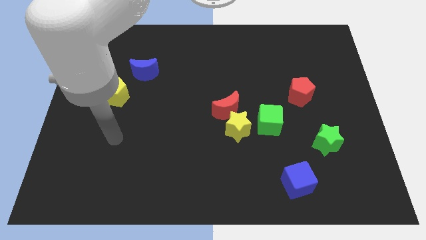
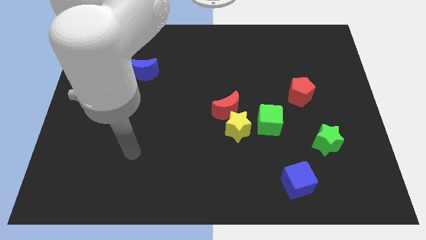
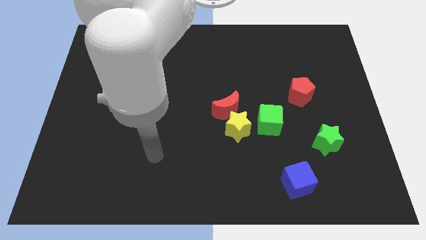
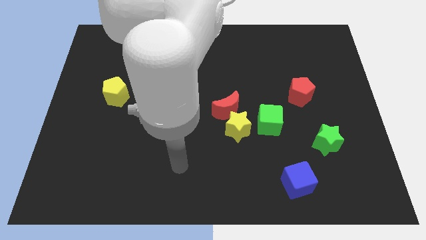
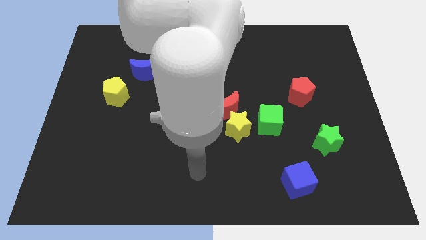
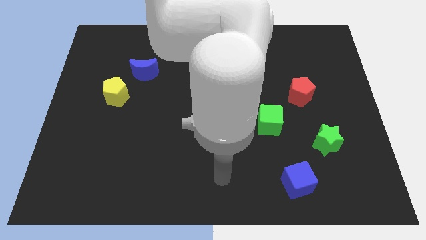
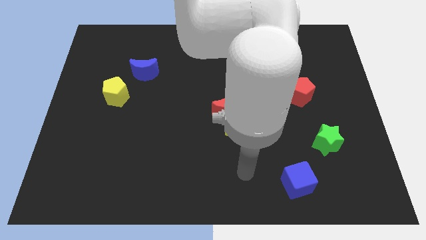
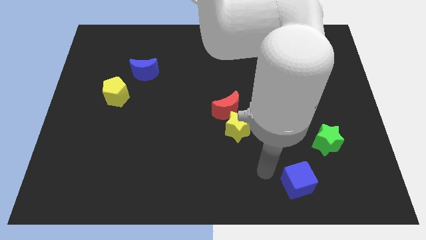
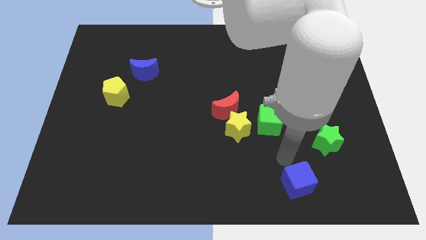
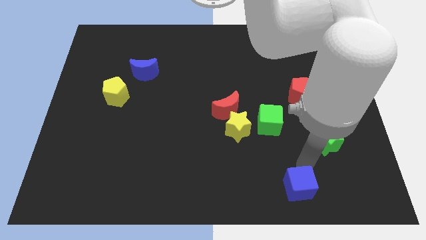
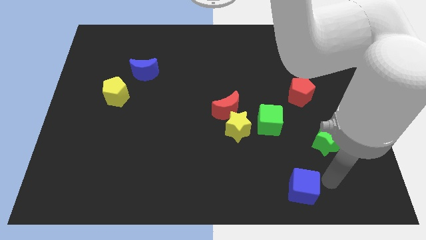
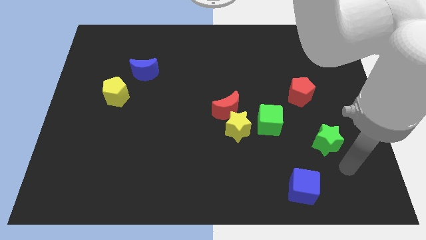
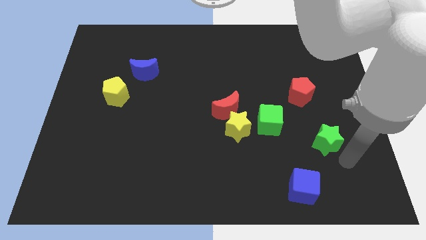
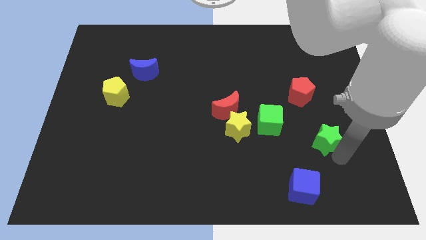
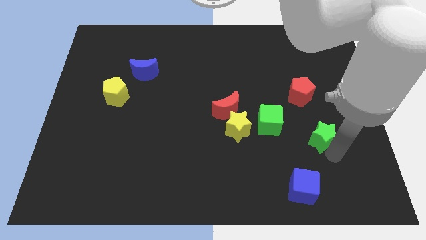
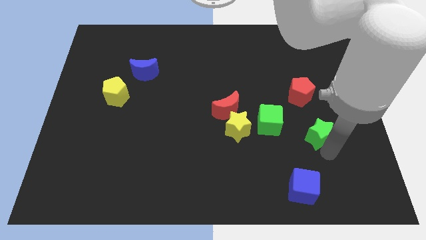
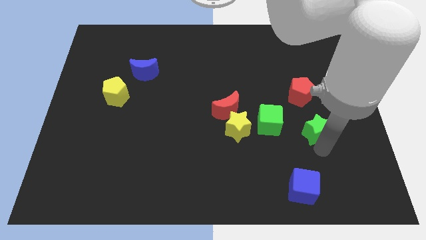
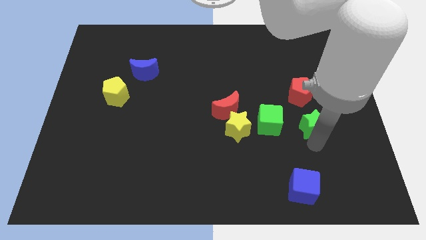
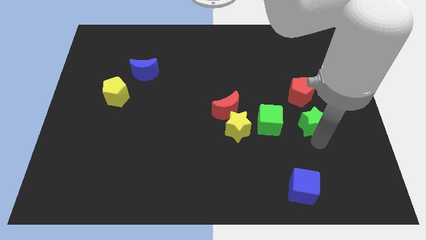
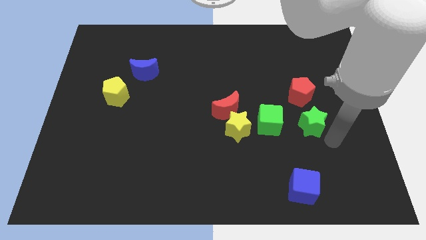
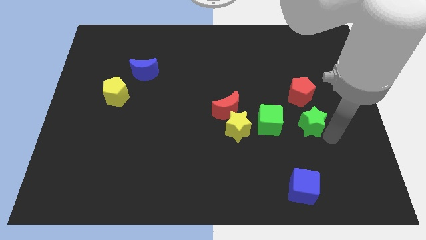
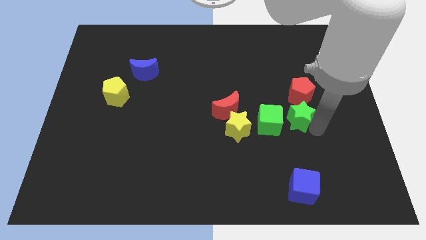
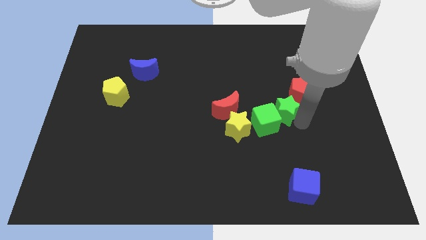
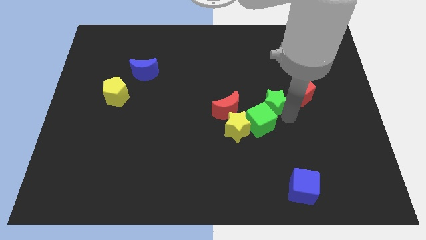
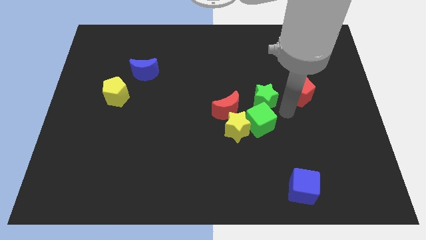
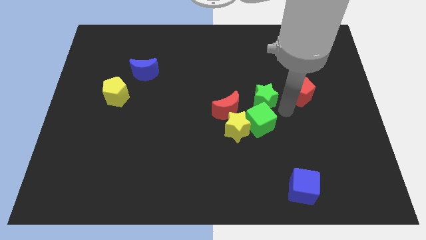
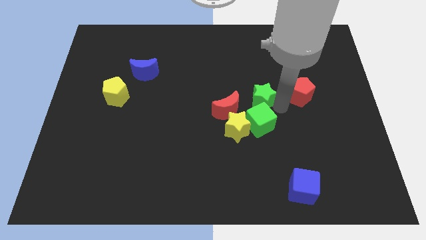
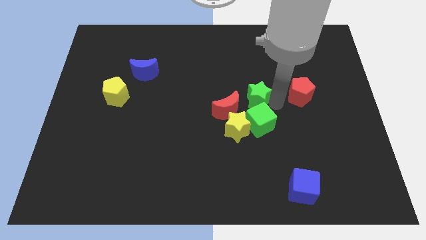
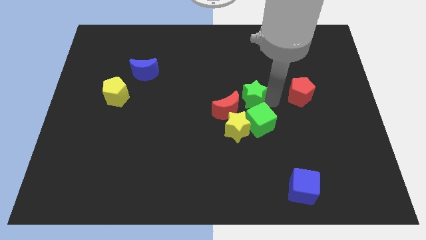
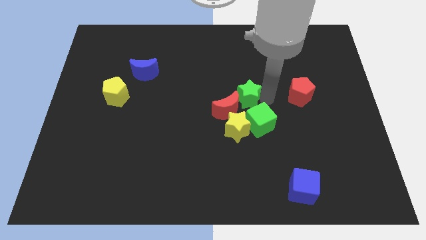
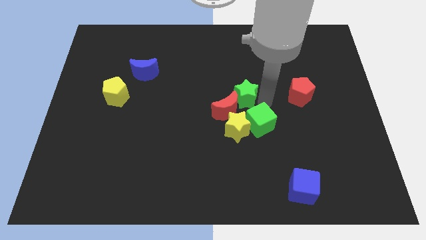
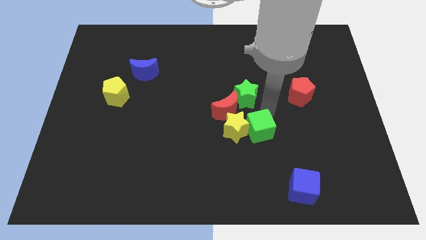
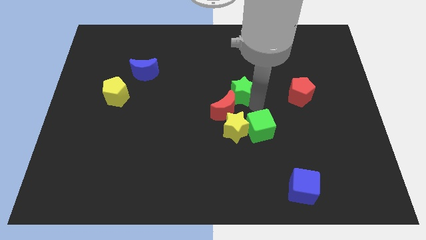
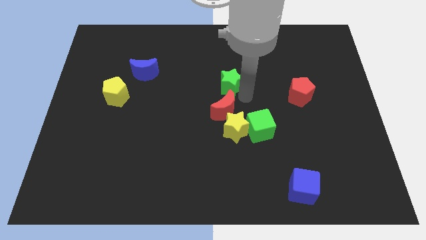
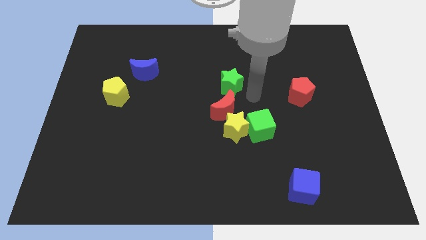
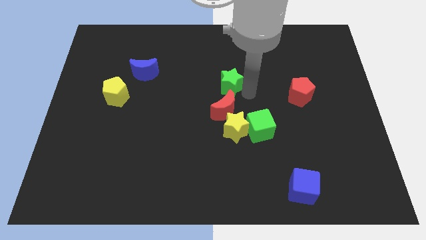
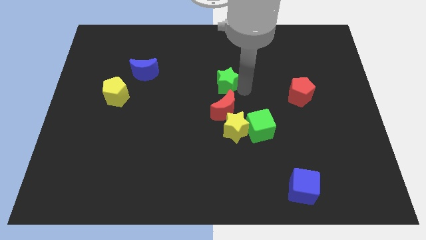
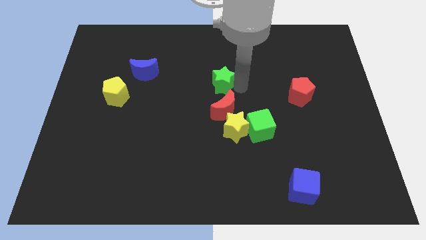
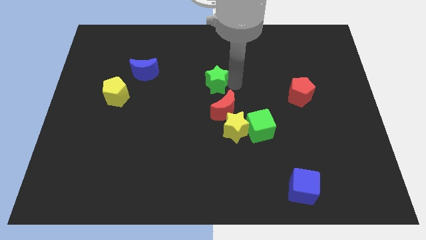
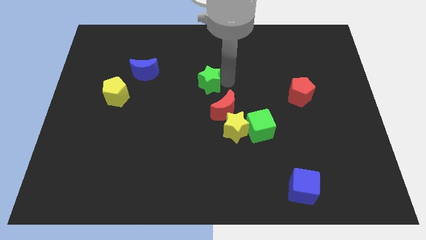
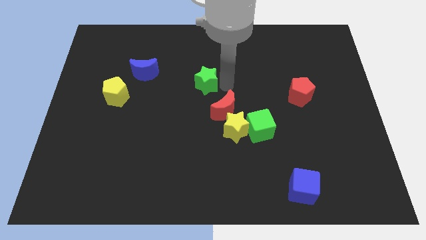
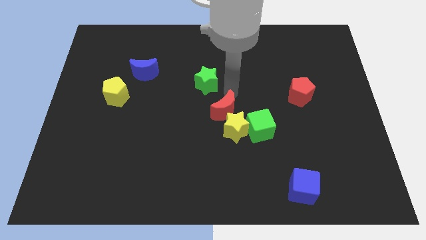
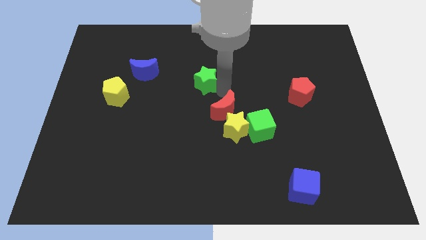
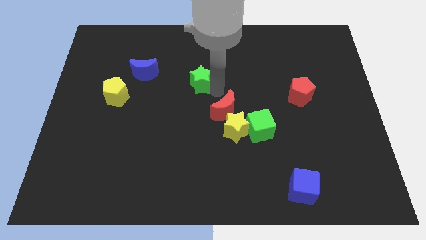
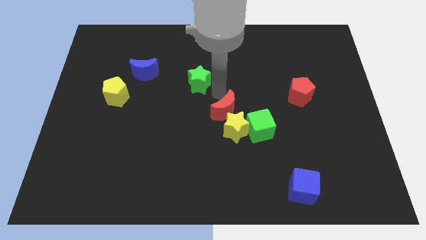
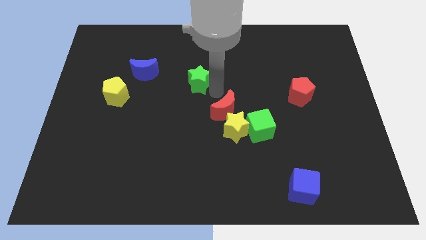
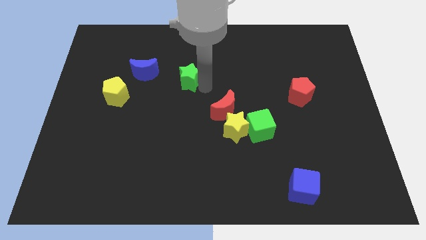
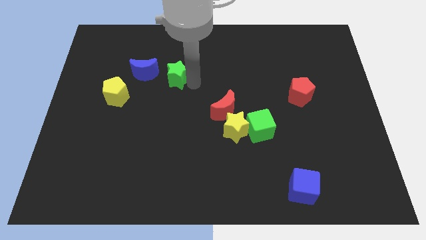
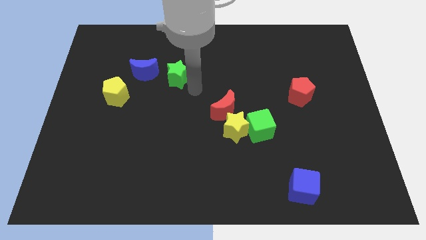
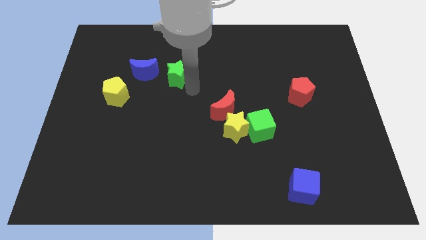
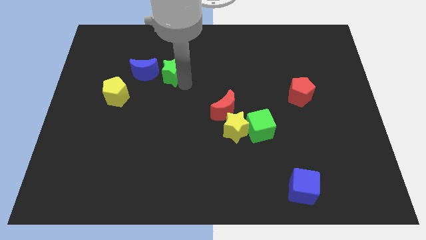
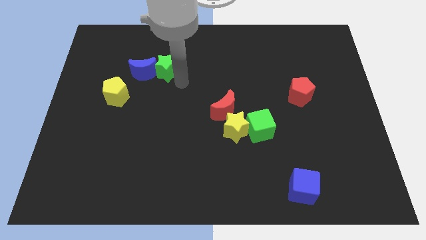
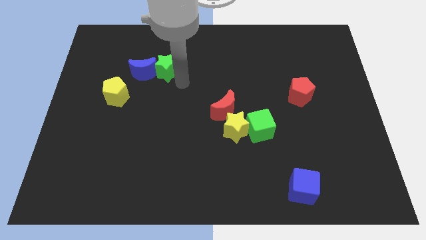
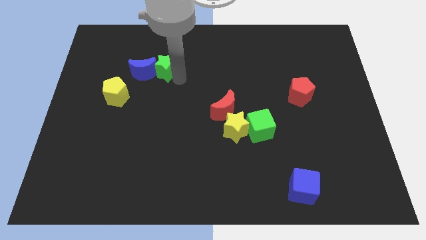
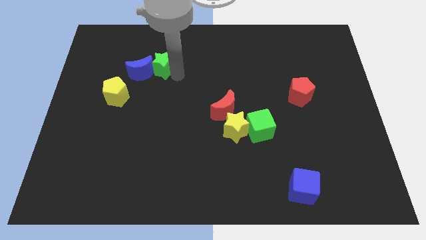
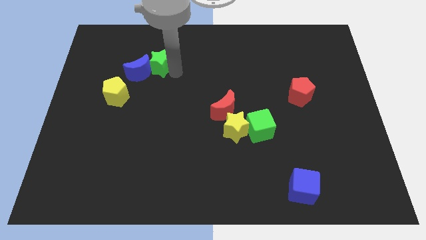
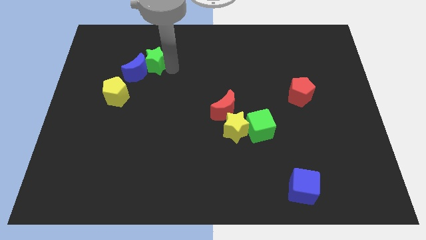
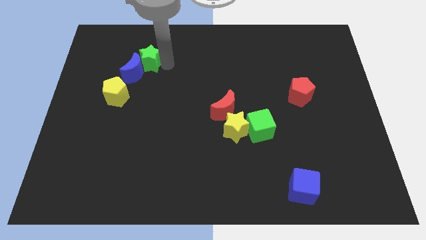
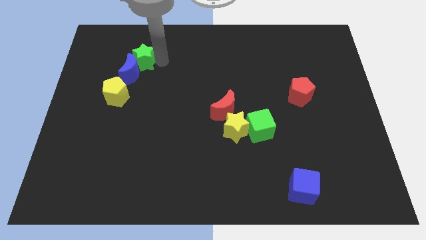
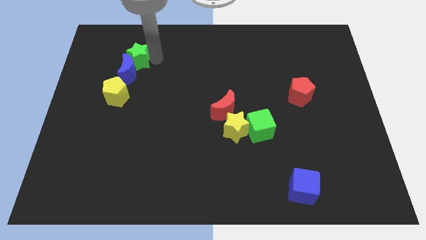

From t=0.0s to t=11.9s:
push the green star to the top left of the blue moon

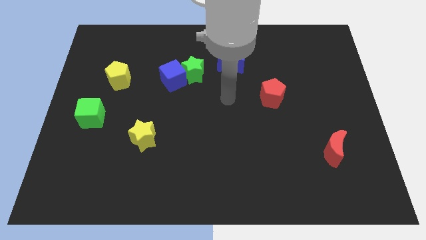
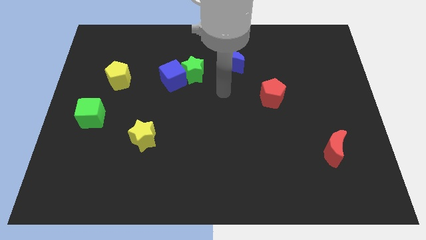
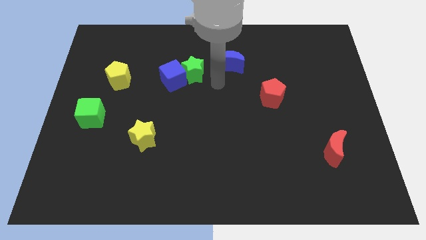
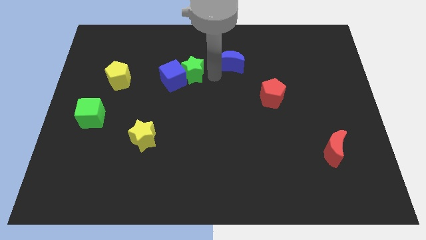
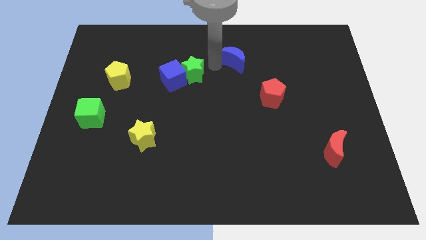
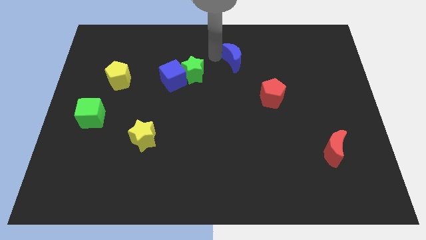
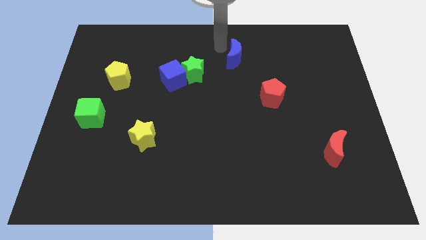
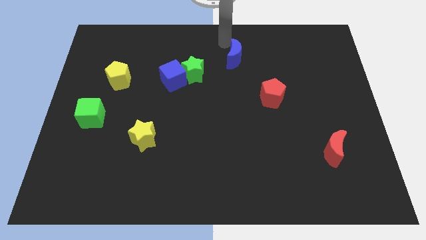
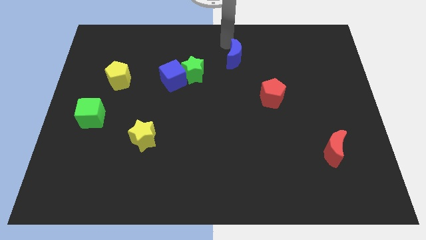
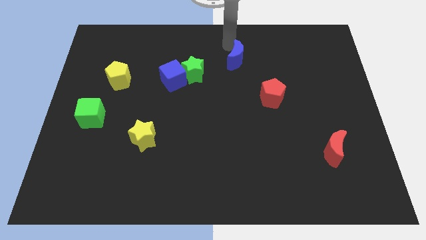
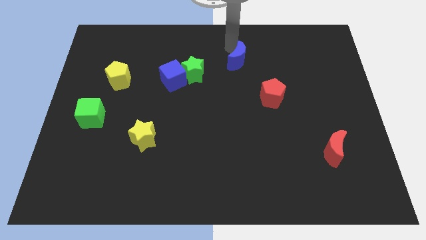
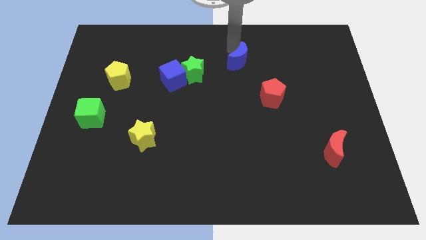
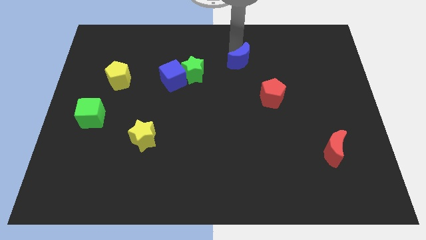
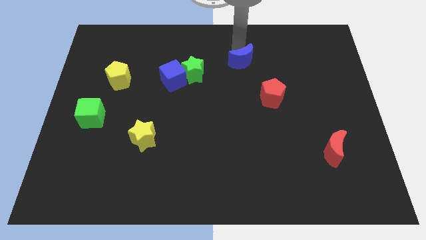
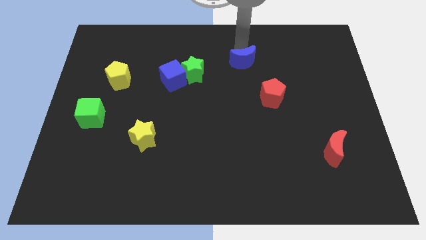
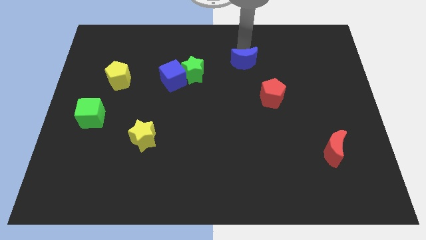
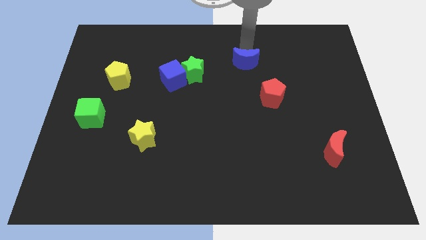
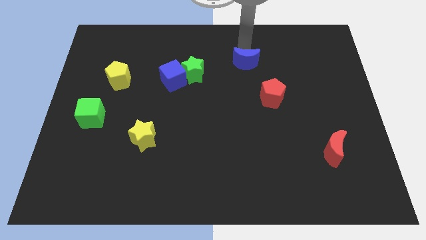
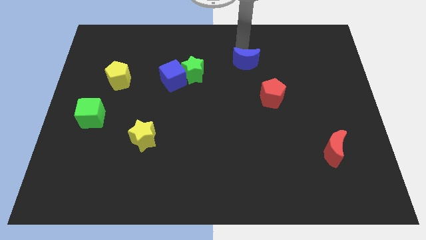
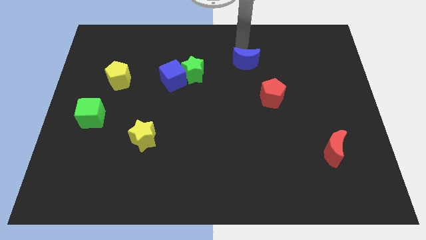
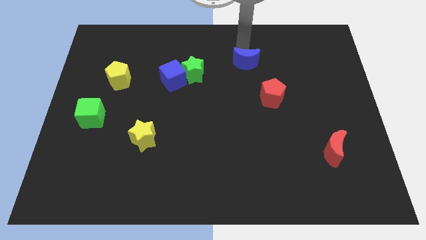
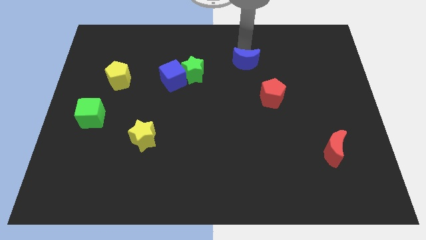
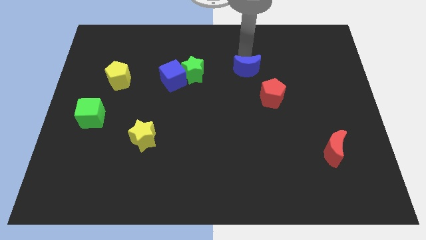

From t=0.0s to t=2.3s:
put the blue moon to the top left of the red pentagon
